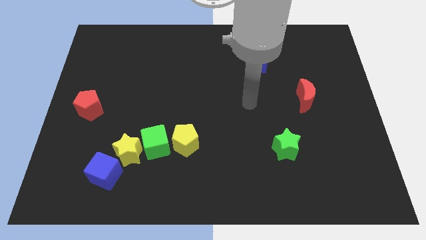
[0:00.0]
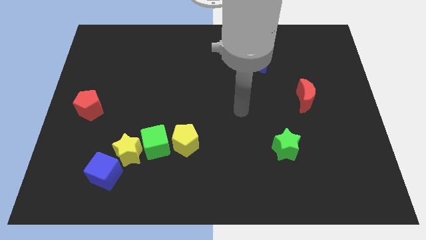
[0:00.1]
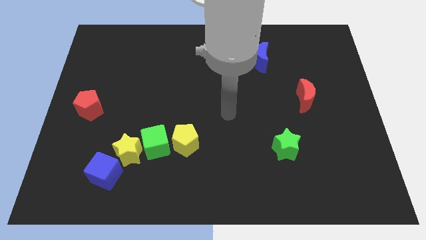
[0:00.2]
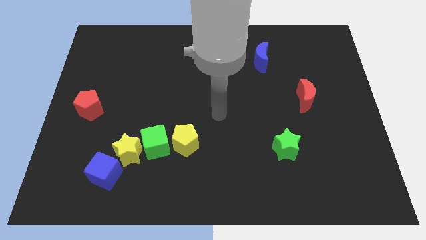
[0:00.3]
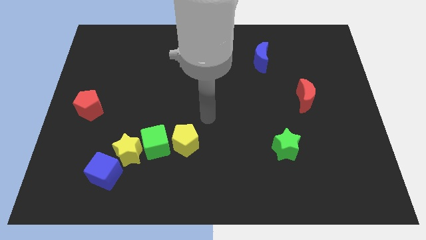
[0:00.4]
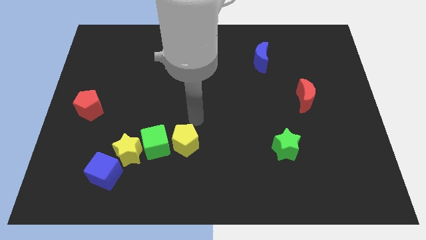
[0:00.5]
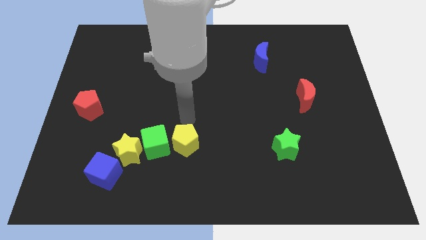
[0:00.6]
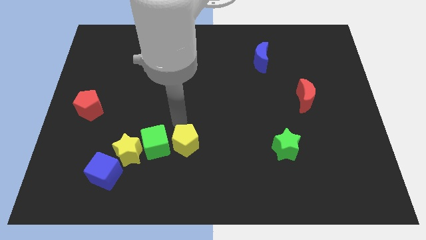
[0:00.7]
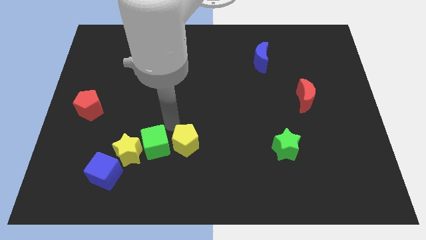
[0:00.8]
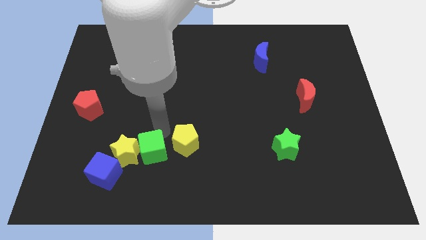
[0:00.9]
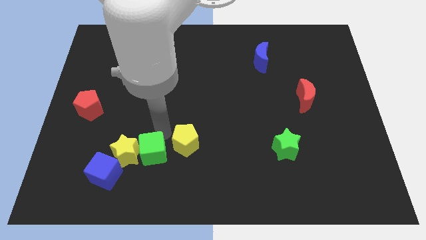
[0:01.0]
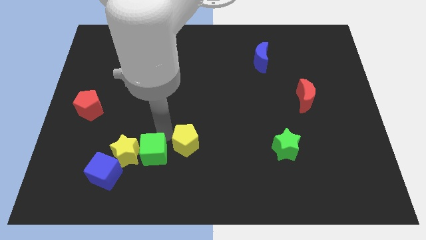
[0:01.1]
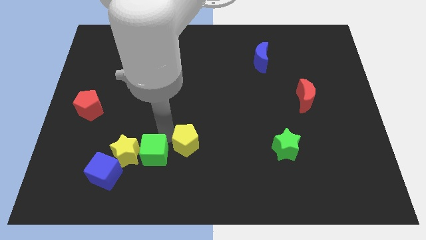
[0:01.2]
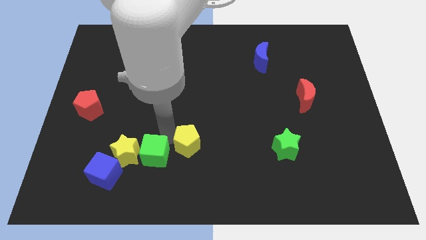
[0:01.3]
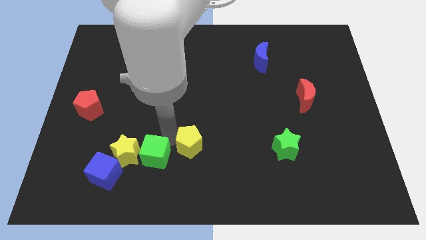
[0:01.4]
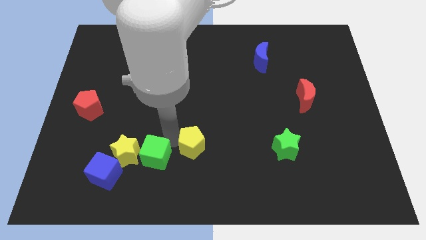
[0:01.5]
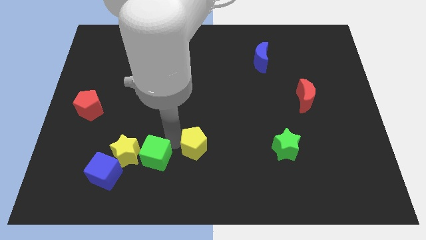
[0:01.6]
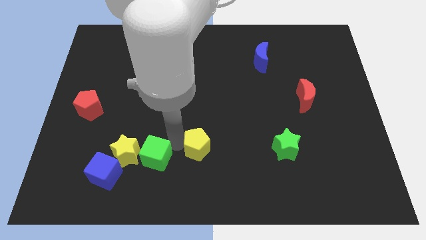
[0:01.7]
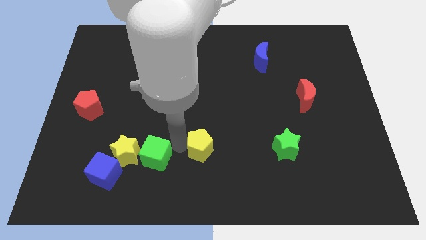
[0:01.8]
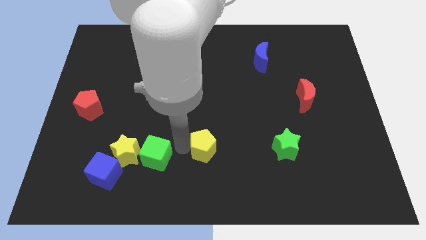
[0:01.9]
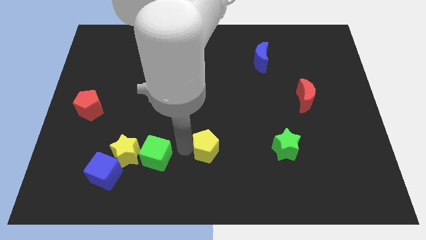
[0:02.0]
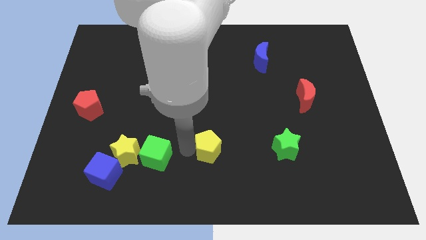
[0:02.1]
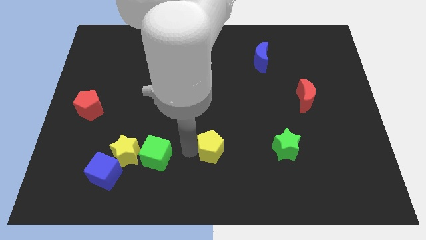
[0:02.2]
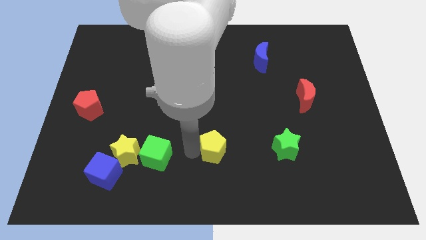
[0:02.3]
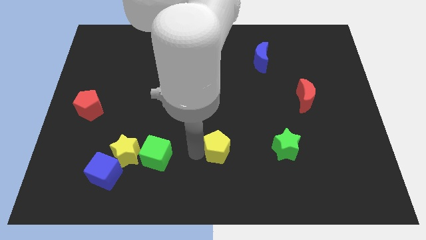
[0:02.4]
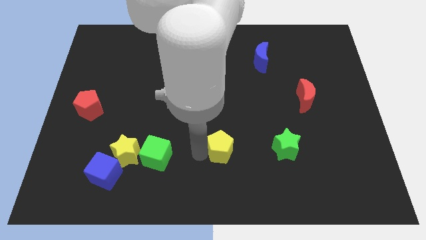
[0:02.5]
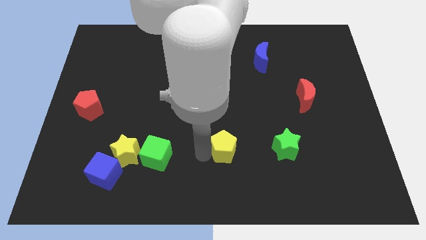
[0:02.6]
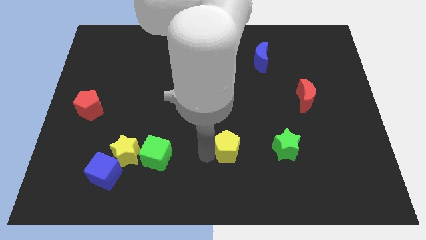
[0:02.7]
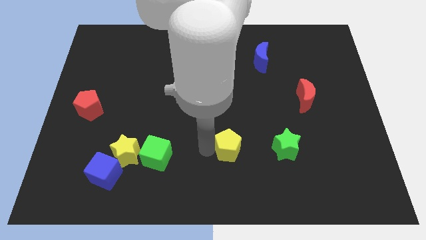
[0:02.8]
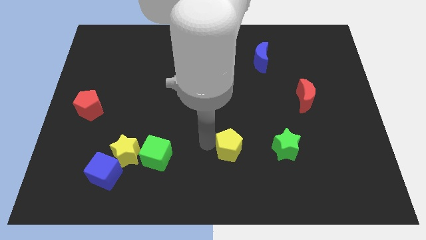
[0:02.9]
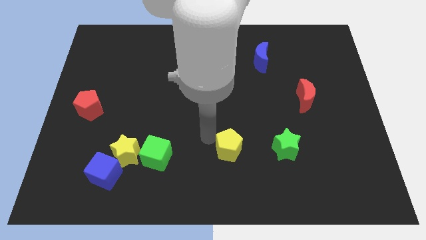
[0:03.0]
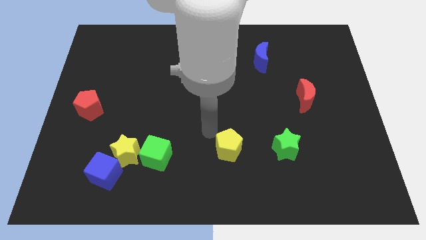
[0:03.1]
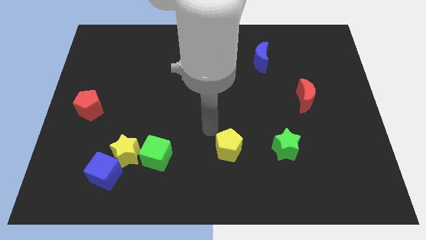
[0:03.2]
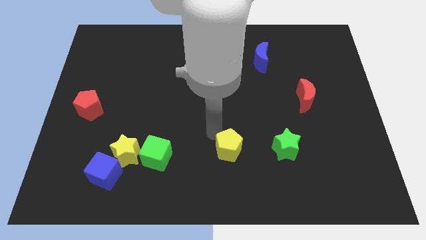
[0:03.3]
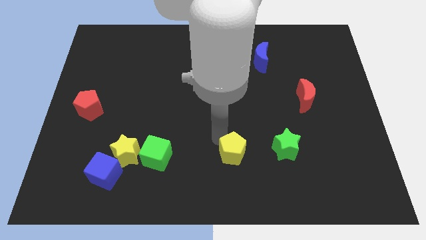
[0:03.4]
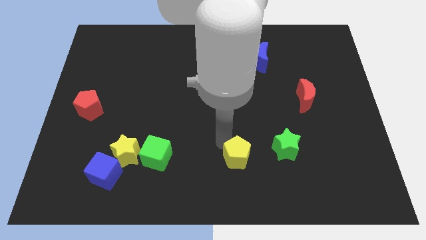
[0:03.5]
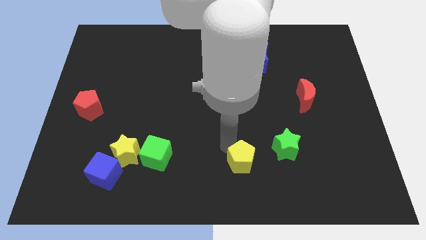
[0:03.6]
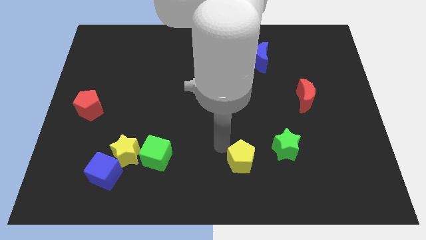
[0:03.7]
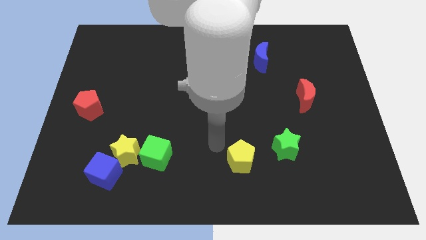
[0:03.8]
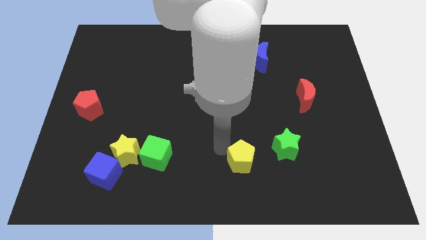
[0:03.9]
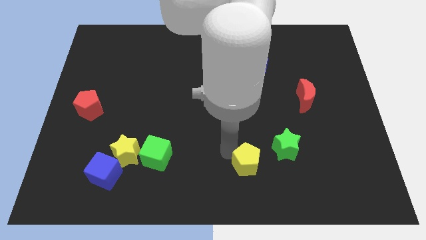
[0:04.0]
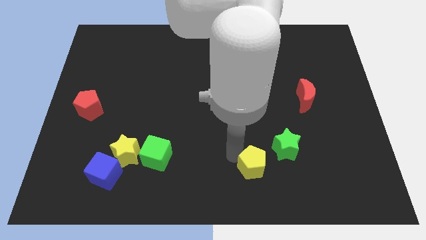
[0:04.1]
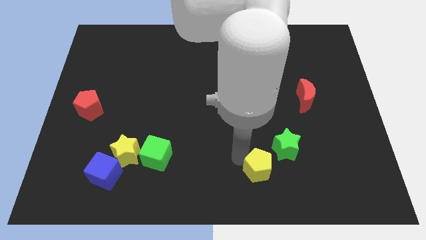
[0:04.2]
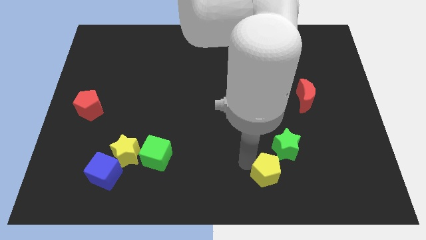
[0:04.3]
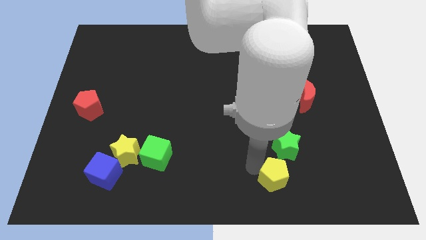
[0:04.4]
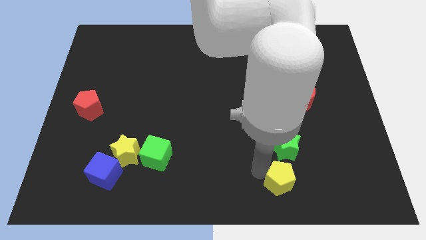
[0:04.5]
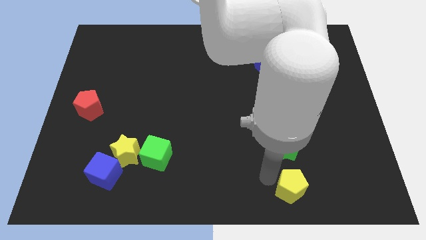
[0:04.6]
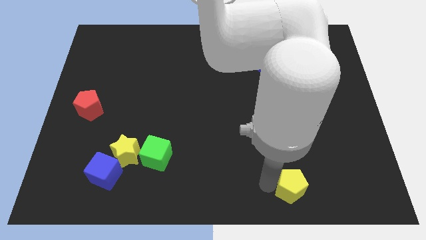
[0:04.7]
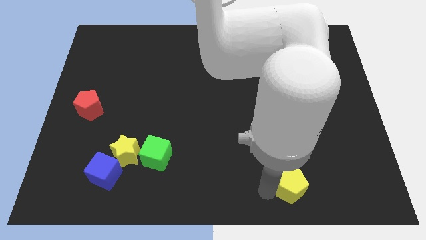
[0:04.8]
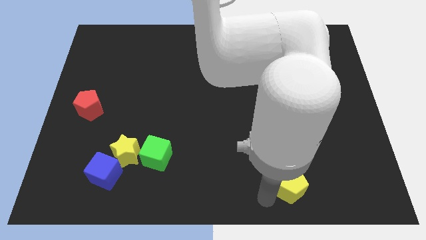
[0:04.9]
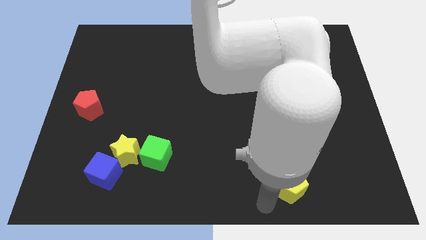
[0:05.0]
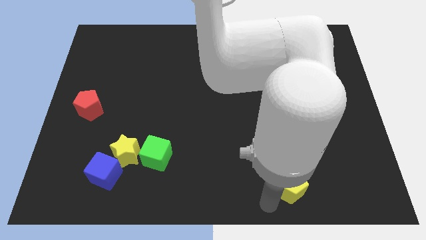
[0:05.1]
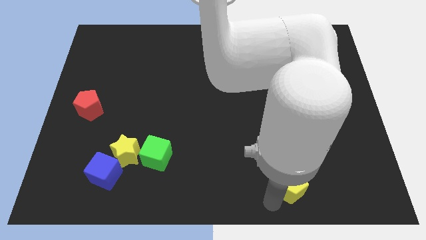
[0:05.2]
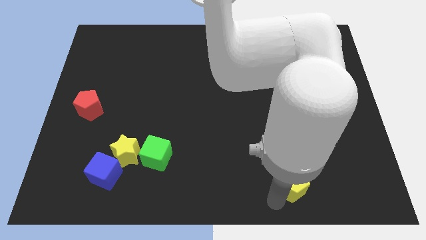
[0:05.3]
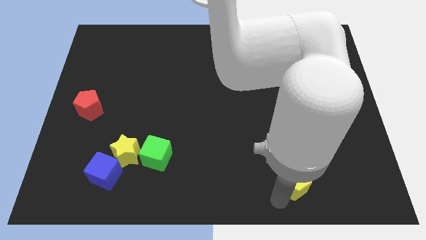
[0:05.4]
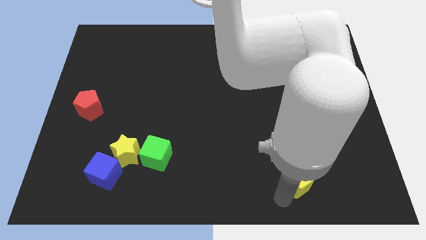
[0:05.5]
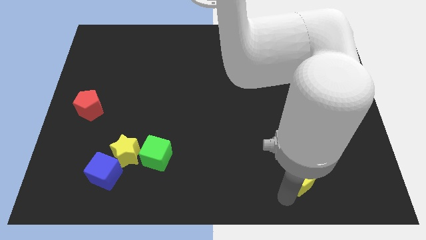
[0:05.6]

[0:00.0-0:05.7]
slide the yellow pentagon to the bottom right of the green star

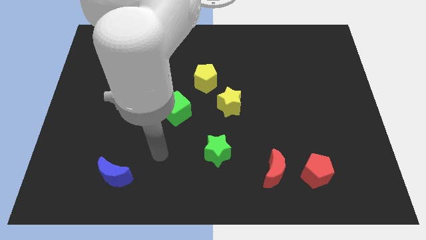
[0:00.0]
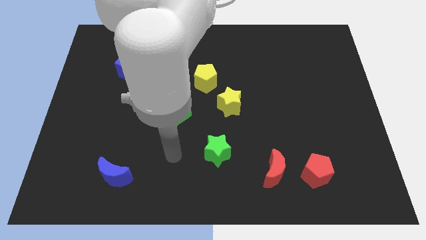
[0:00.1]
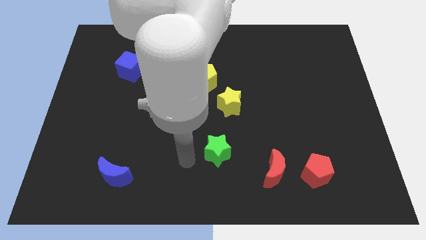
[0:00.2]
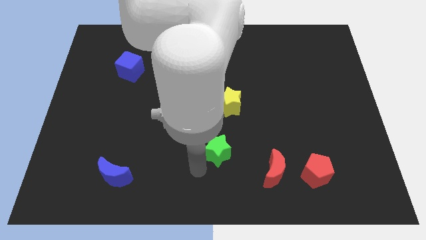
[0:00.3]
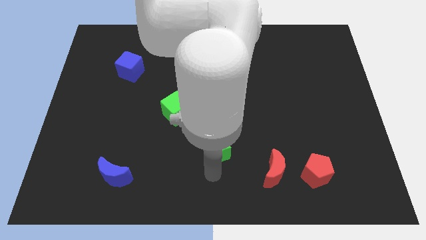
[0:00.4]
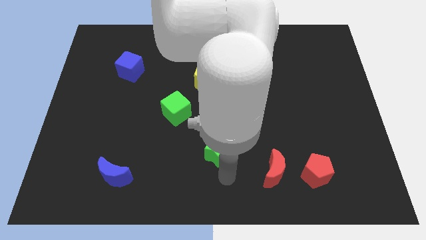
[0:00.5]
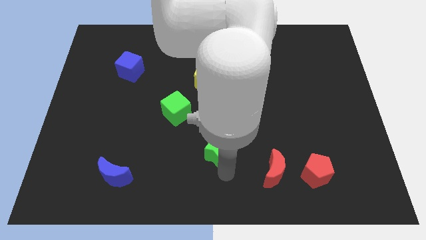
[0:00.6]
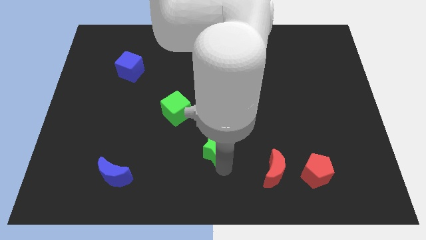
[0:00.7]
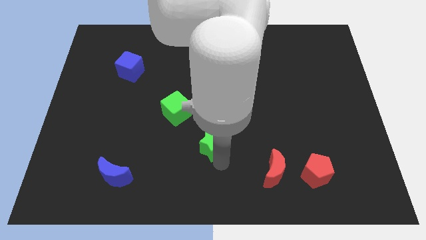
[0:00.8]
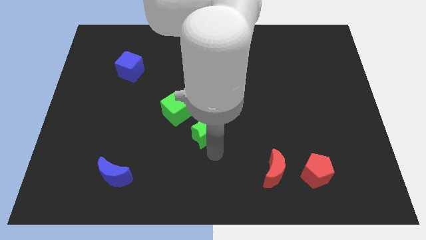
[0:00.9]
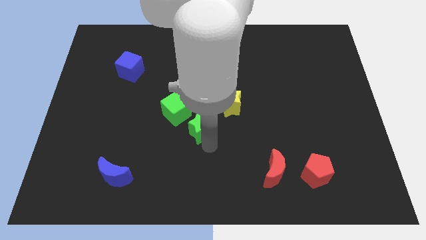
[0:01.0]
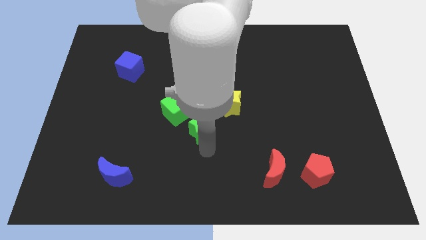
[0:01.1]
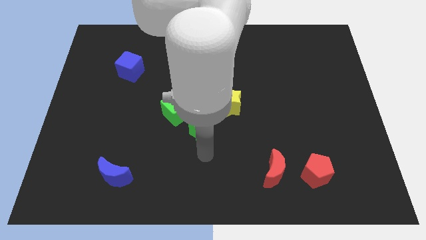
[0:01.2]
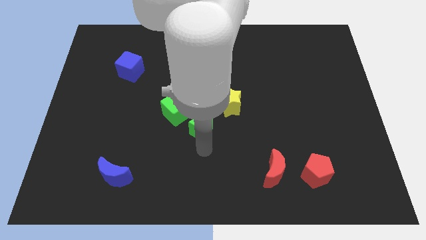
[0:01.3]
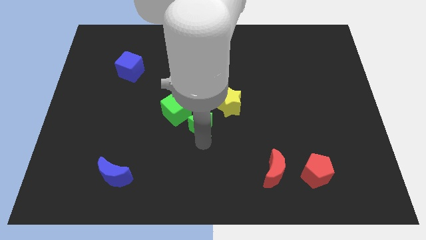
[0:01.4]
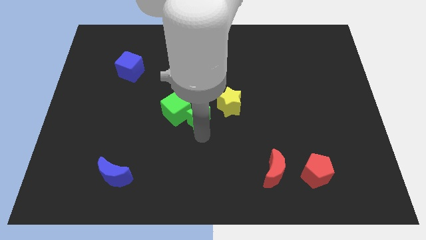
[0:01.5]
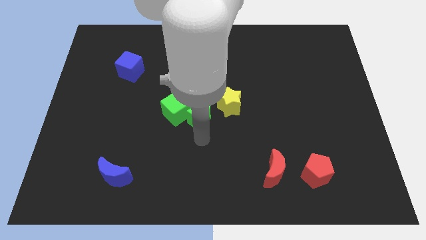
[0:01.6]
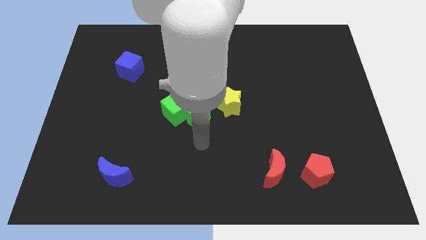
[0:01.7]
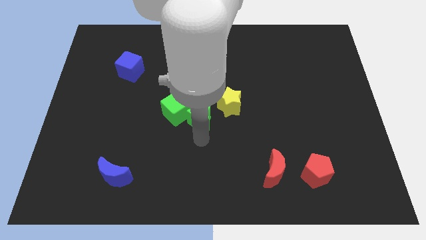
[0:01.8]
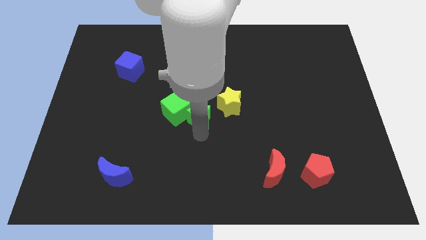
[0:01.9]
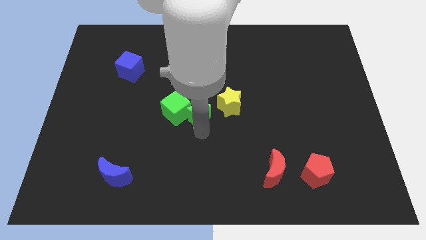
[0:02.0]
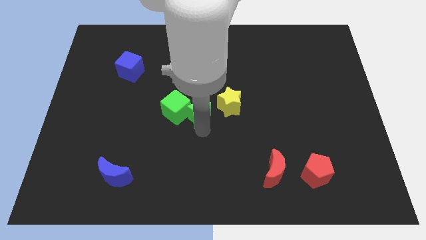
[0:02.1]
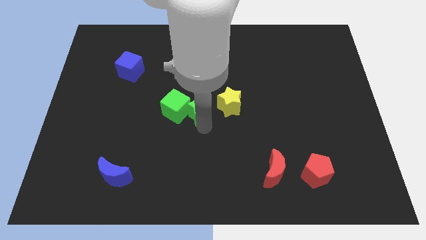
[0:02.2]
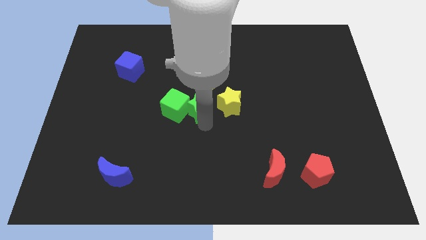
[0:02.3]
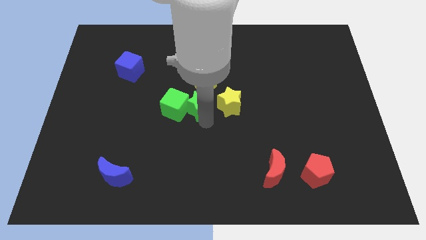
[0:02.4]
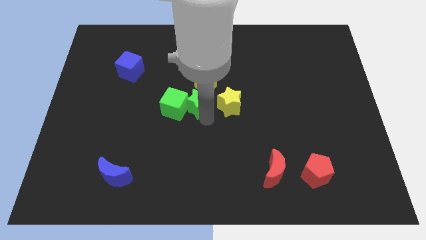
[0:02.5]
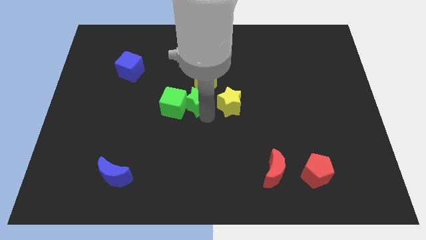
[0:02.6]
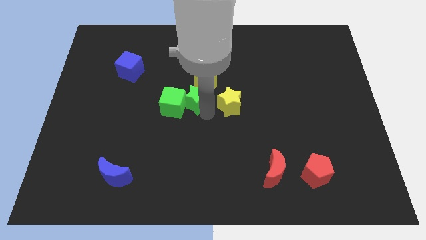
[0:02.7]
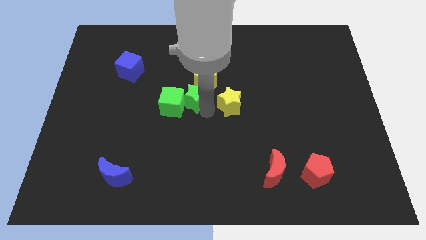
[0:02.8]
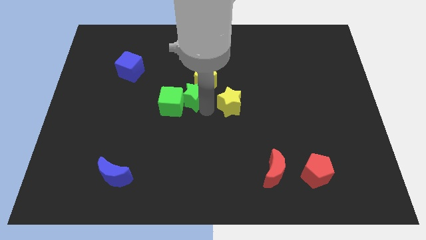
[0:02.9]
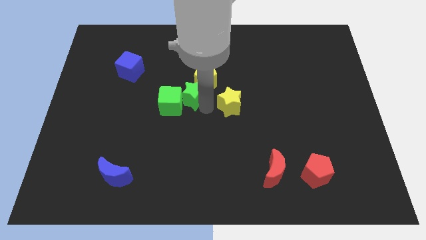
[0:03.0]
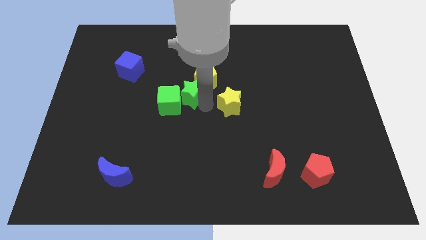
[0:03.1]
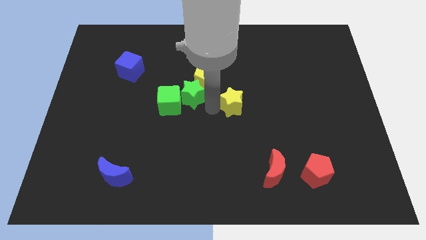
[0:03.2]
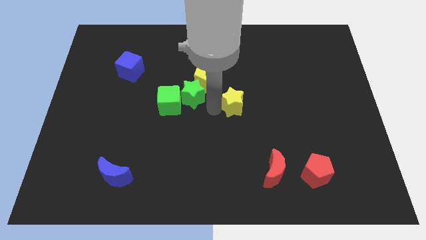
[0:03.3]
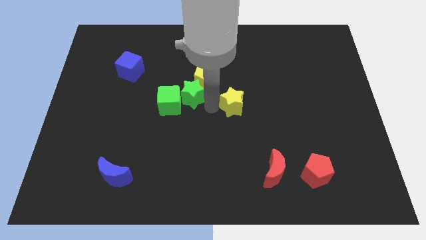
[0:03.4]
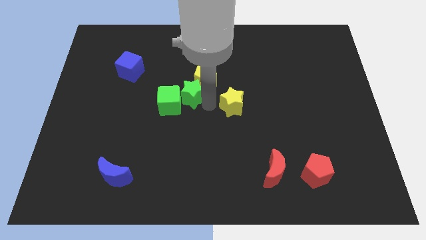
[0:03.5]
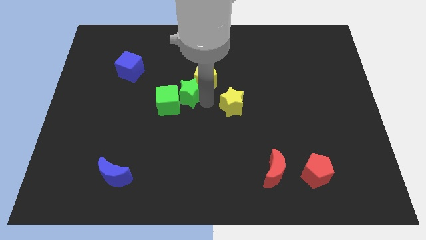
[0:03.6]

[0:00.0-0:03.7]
push the green star left of the yellow pentagon
